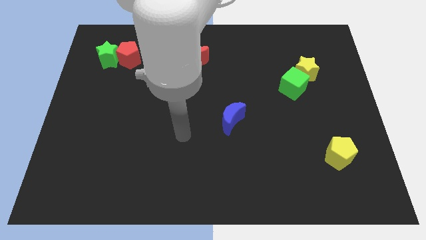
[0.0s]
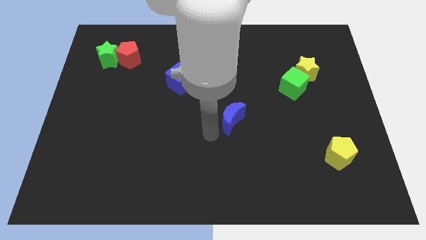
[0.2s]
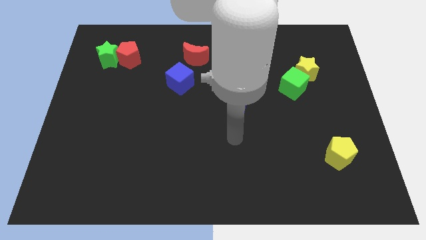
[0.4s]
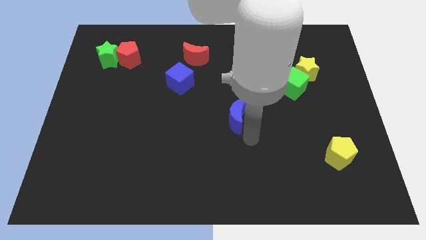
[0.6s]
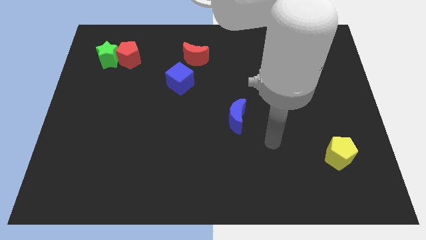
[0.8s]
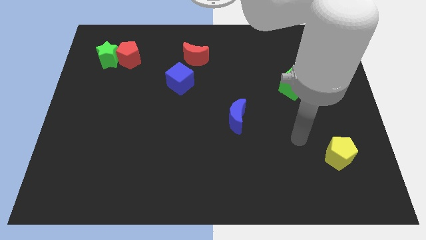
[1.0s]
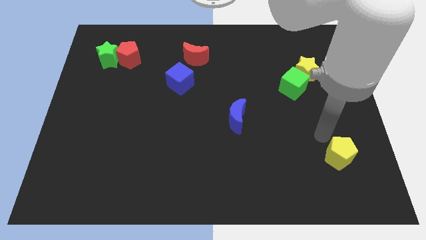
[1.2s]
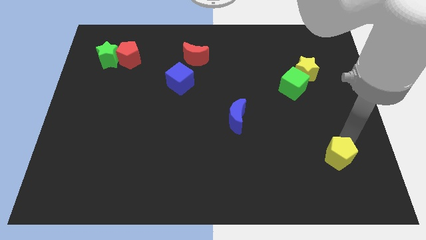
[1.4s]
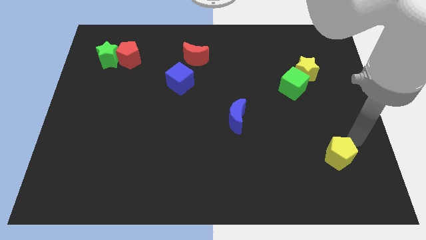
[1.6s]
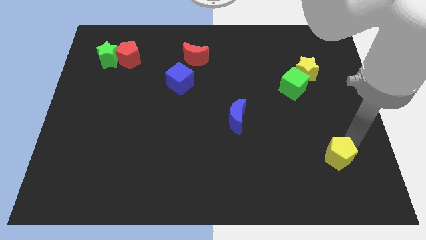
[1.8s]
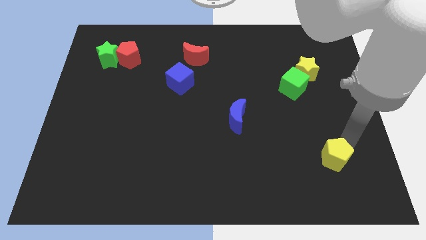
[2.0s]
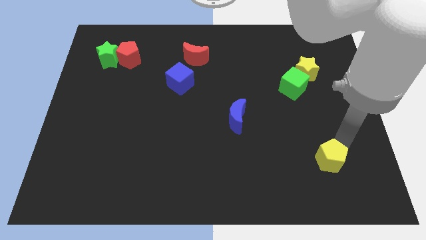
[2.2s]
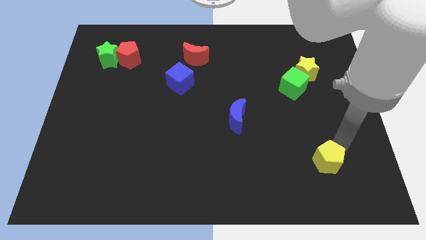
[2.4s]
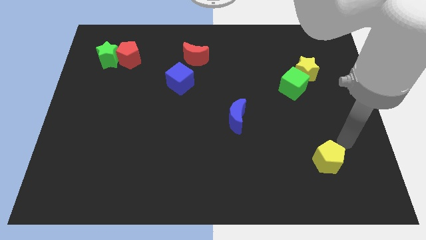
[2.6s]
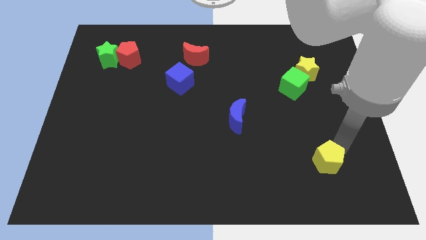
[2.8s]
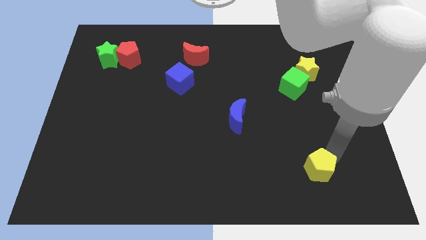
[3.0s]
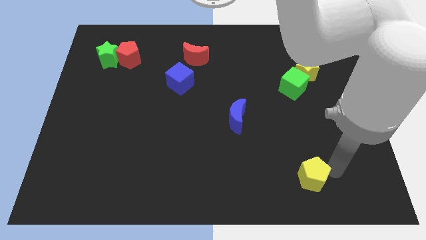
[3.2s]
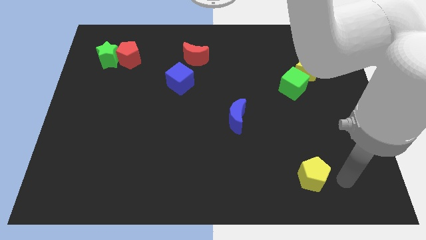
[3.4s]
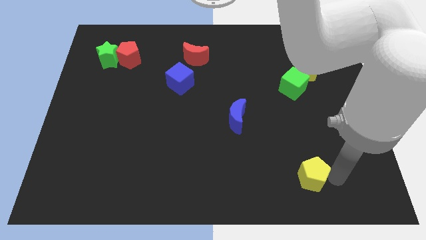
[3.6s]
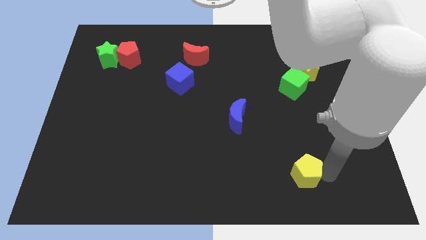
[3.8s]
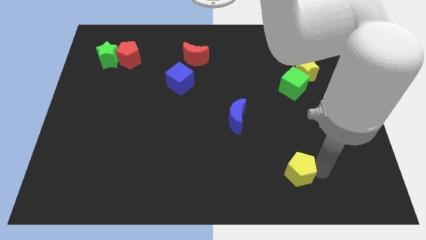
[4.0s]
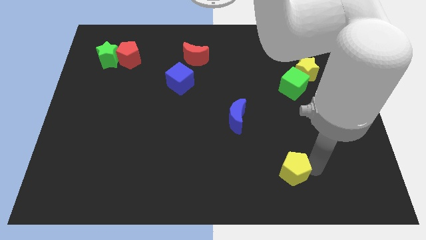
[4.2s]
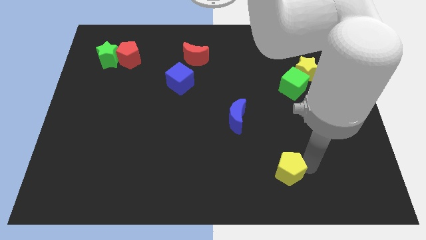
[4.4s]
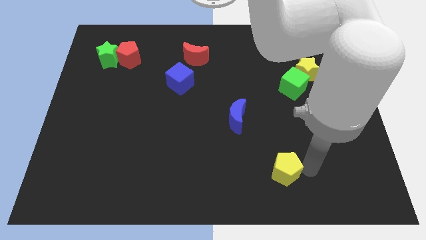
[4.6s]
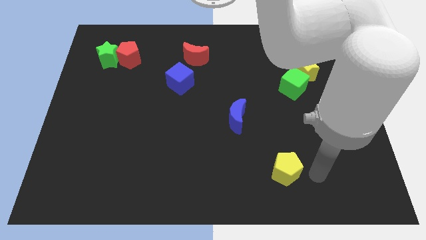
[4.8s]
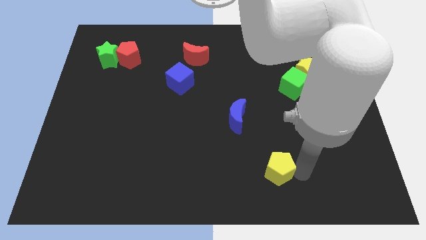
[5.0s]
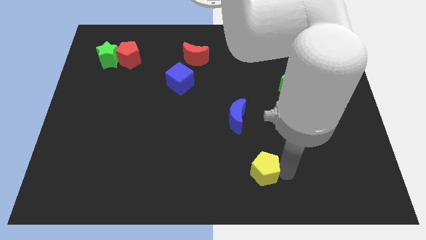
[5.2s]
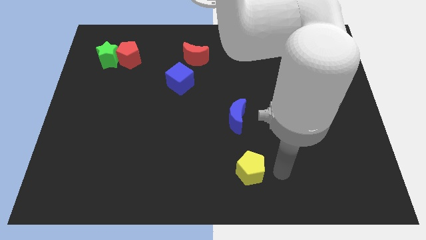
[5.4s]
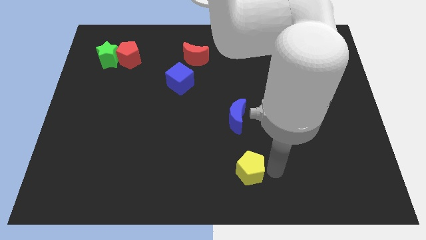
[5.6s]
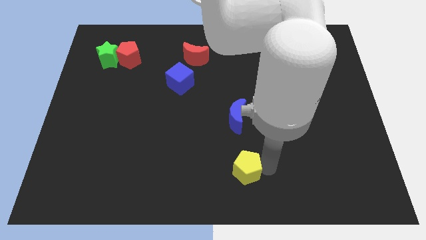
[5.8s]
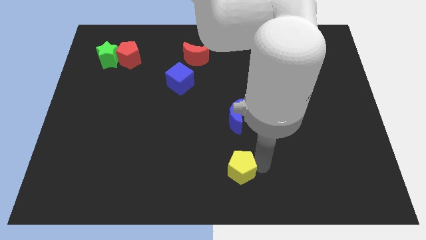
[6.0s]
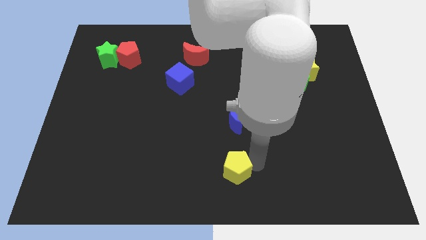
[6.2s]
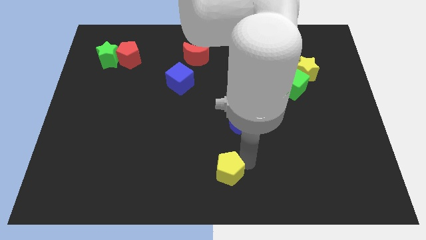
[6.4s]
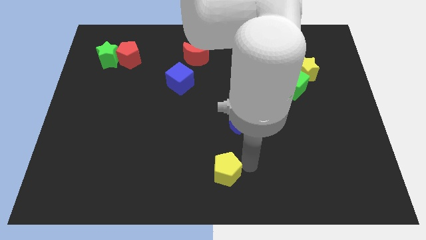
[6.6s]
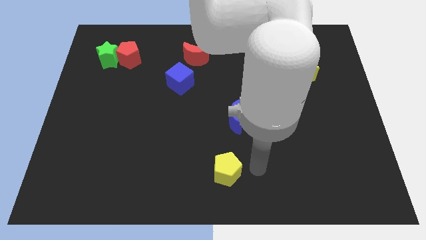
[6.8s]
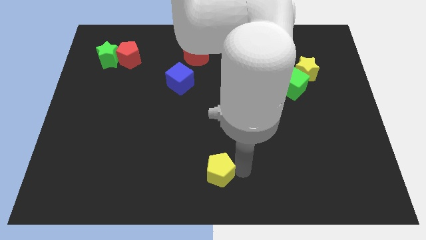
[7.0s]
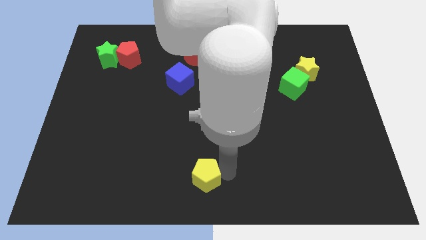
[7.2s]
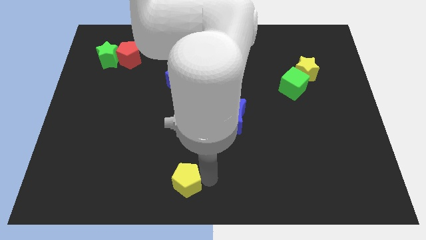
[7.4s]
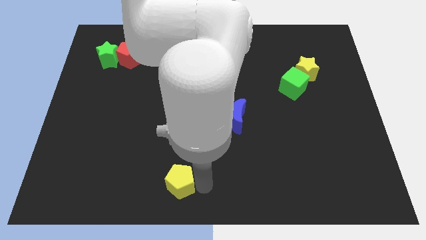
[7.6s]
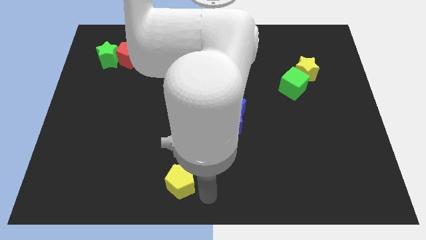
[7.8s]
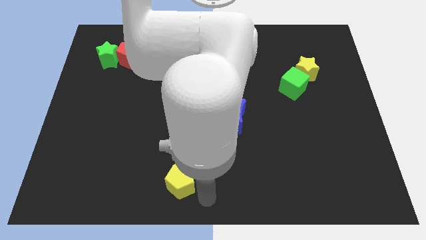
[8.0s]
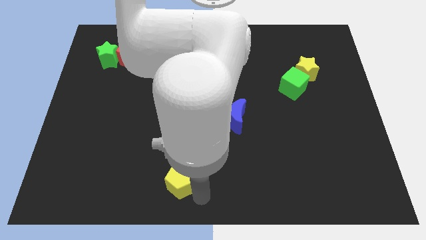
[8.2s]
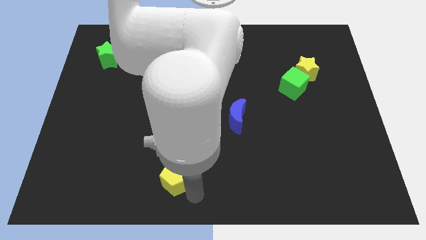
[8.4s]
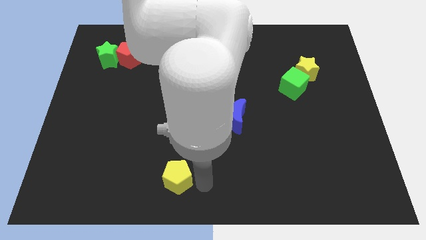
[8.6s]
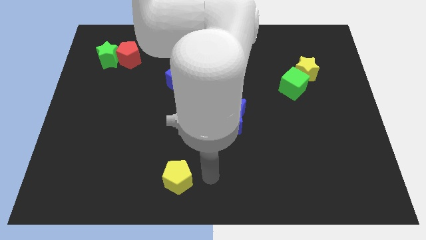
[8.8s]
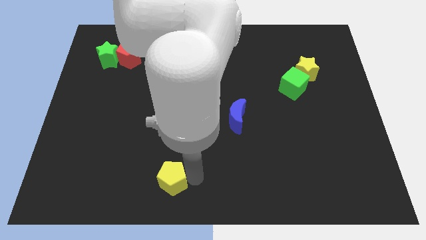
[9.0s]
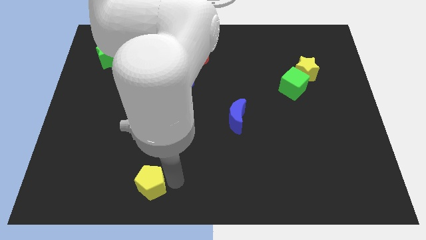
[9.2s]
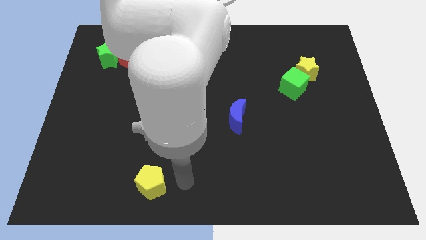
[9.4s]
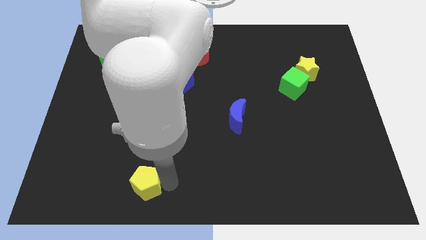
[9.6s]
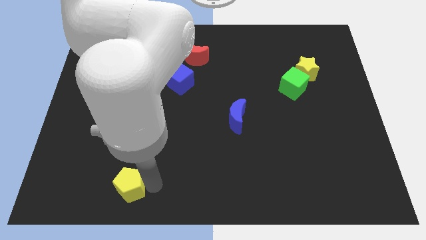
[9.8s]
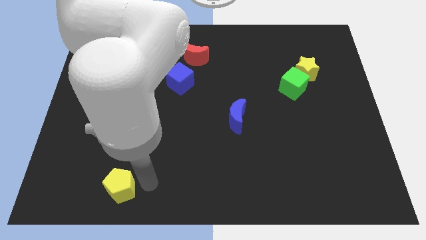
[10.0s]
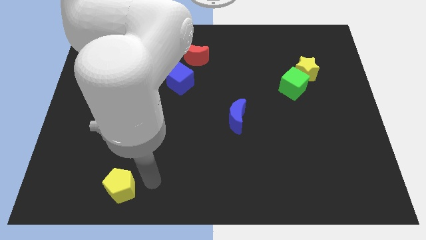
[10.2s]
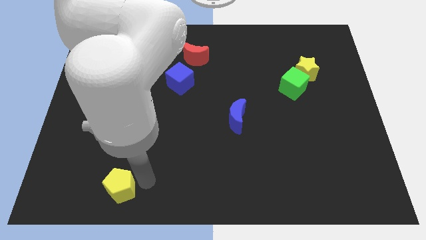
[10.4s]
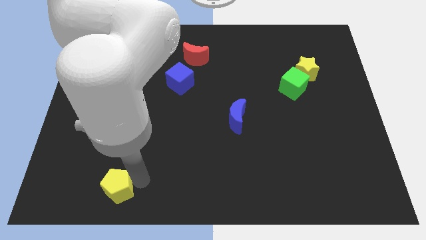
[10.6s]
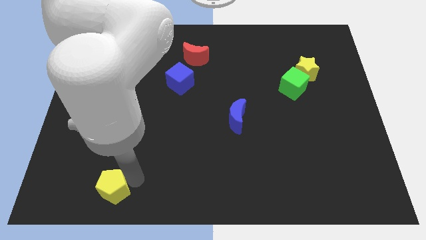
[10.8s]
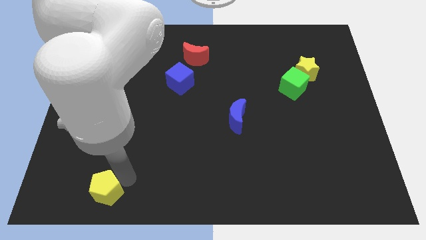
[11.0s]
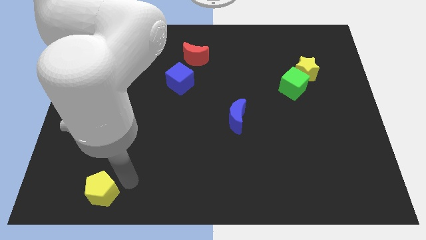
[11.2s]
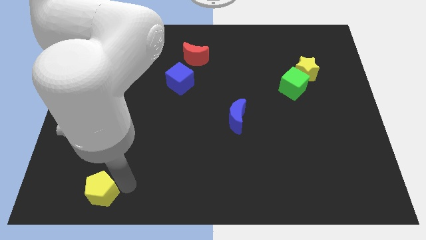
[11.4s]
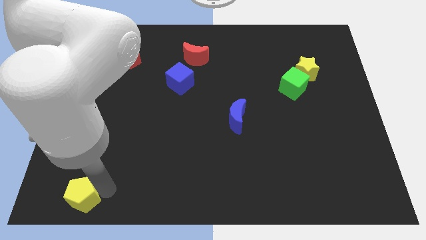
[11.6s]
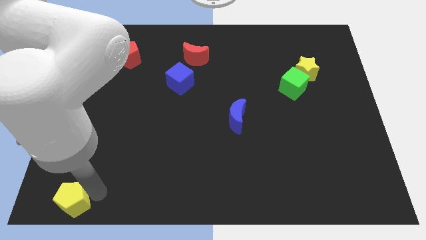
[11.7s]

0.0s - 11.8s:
slide the yellow pentagon to the lower left corner

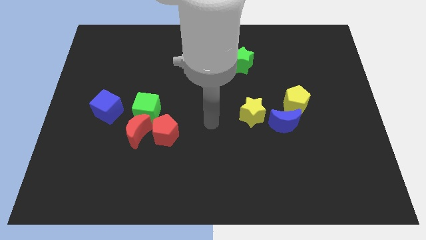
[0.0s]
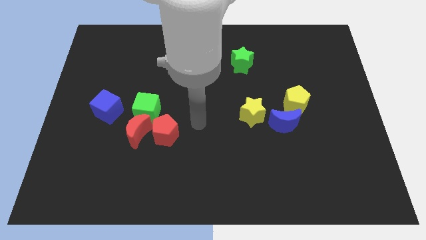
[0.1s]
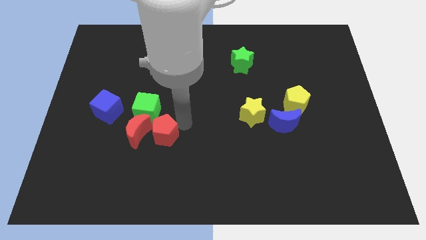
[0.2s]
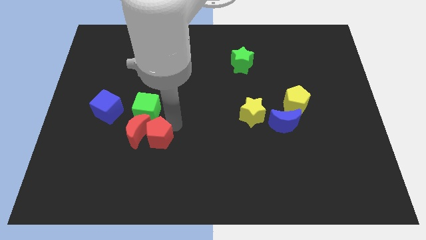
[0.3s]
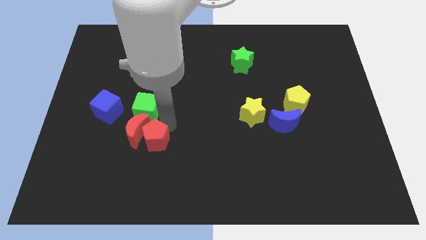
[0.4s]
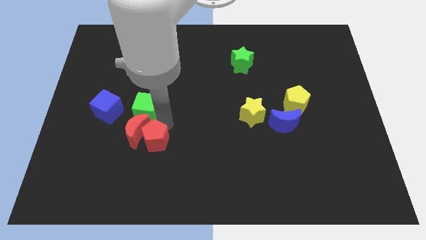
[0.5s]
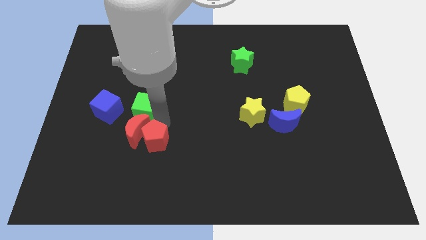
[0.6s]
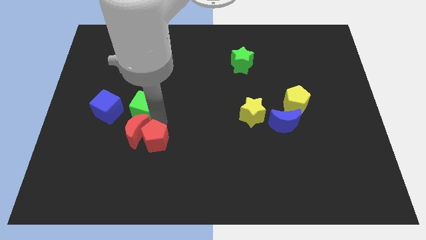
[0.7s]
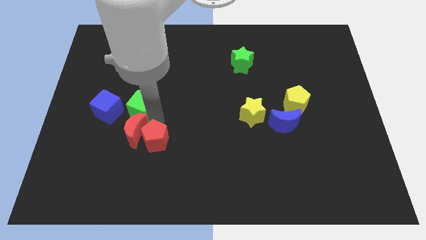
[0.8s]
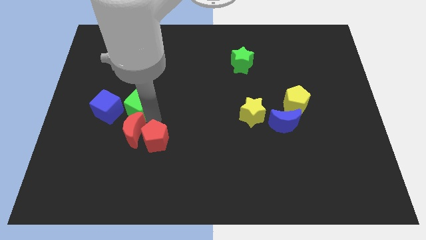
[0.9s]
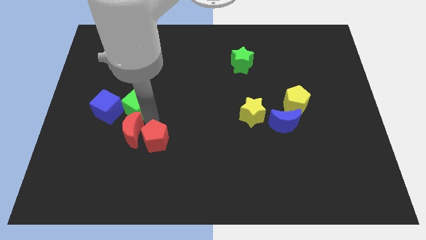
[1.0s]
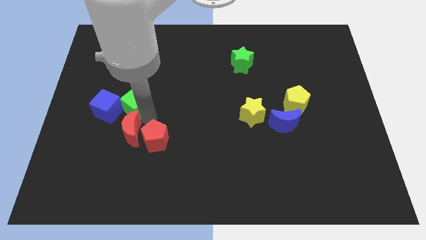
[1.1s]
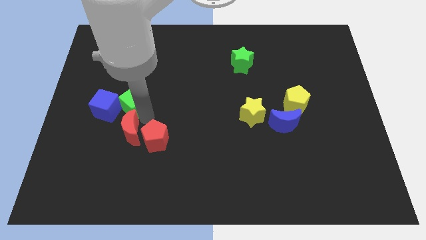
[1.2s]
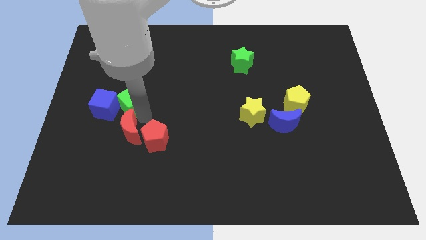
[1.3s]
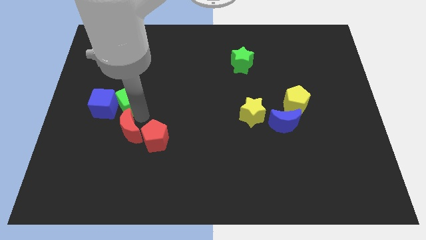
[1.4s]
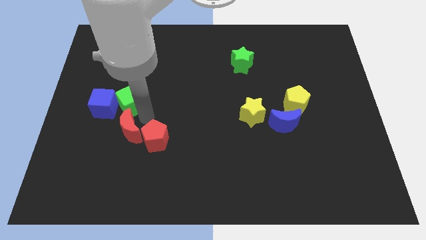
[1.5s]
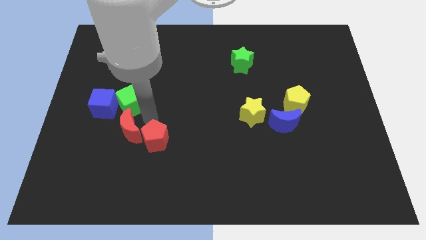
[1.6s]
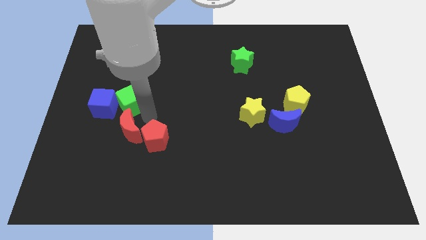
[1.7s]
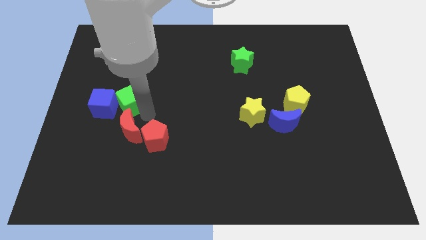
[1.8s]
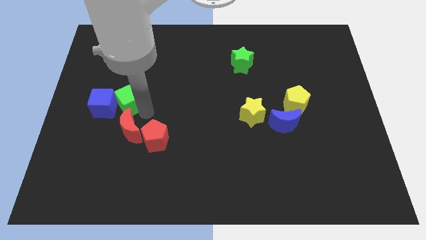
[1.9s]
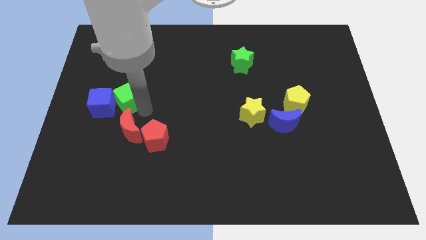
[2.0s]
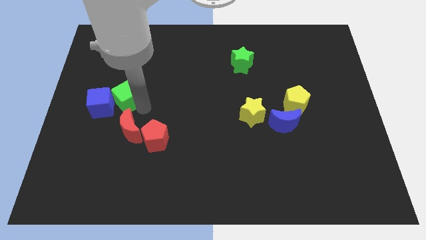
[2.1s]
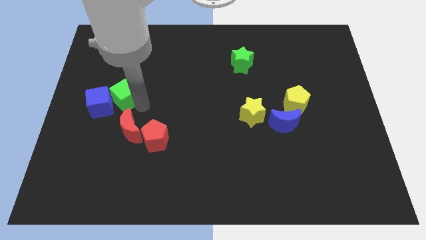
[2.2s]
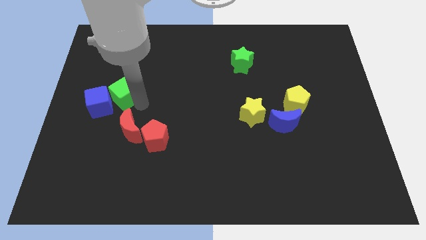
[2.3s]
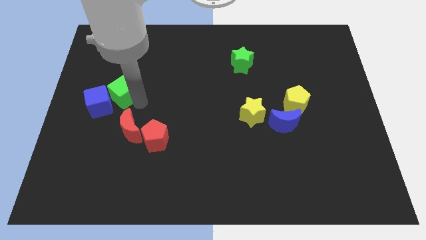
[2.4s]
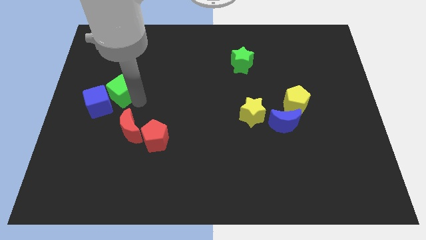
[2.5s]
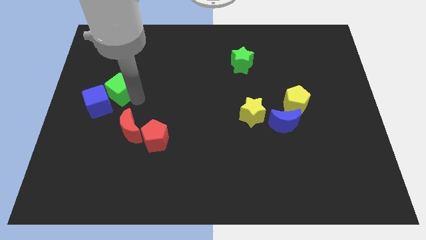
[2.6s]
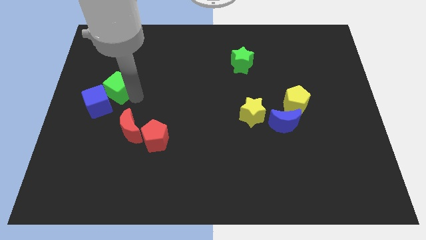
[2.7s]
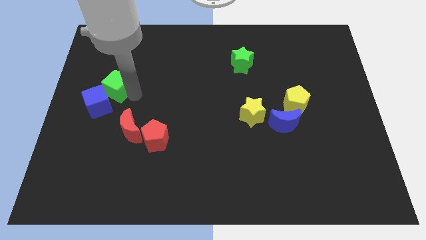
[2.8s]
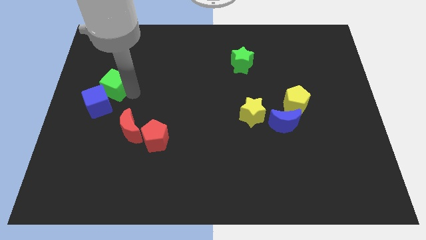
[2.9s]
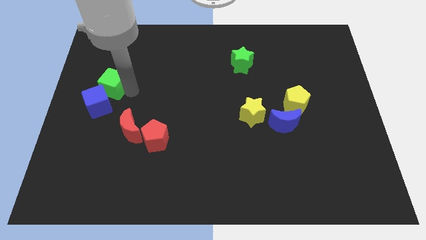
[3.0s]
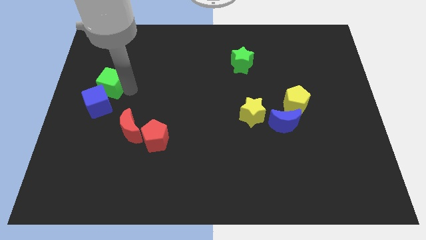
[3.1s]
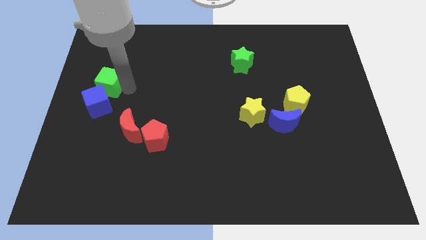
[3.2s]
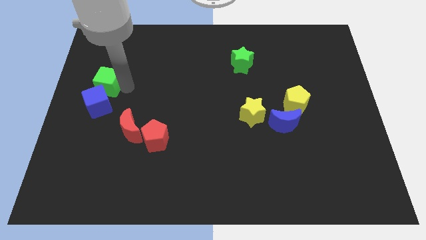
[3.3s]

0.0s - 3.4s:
put the green cube to the center left
